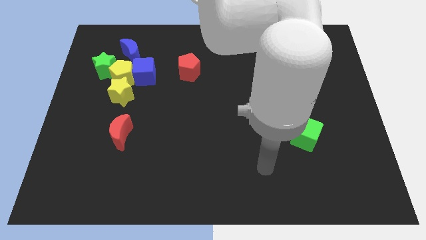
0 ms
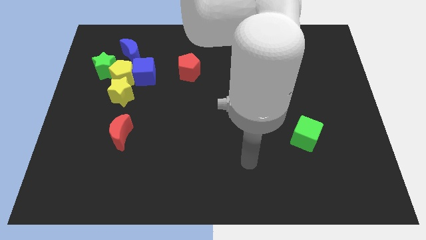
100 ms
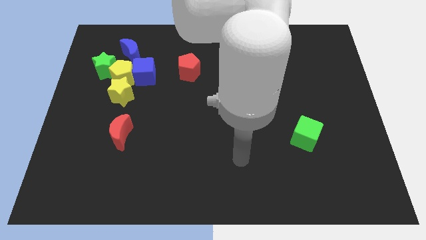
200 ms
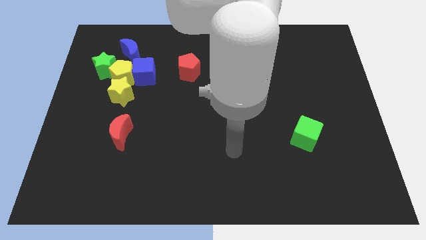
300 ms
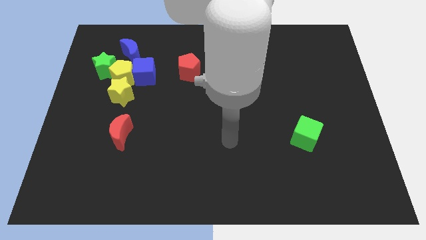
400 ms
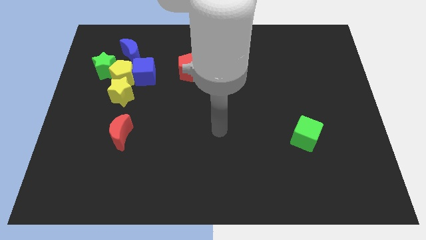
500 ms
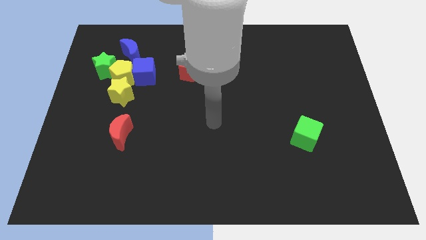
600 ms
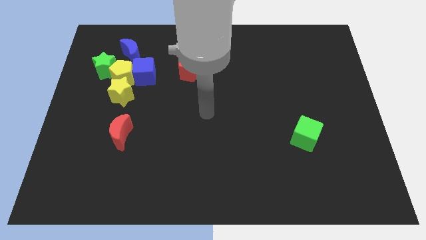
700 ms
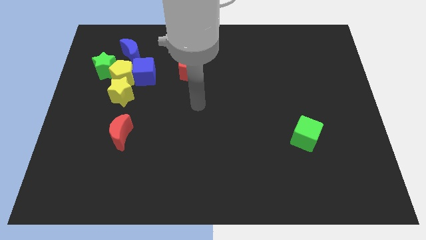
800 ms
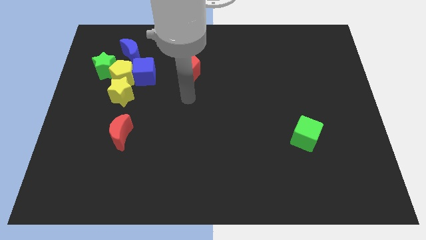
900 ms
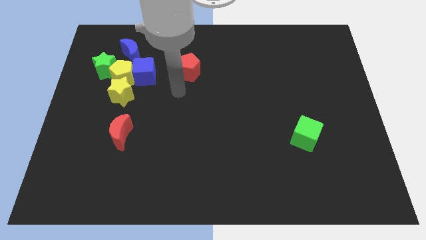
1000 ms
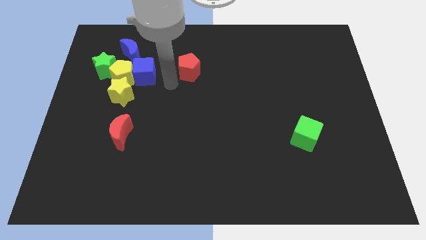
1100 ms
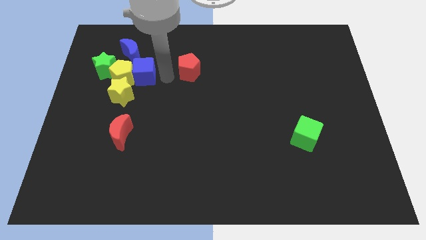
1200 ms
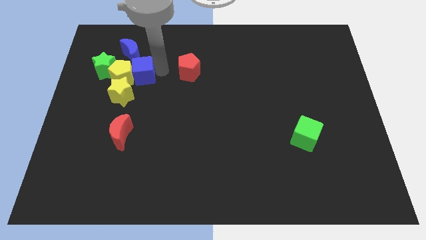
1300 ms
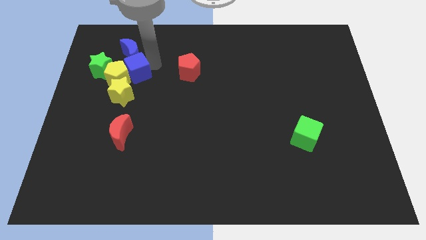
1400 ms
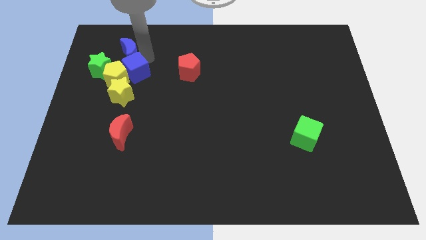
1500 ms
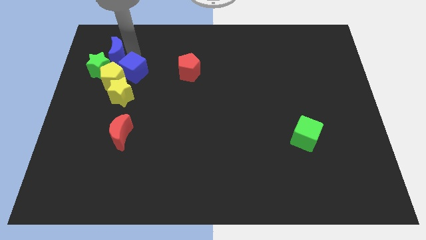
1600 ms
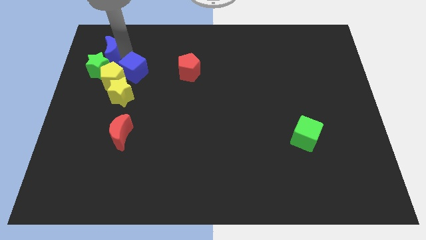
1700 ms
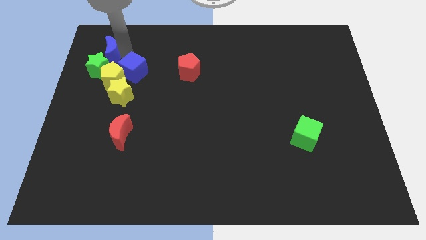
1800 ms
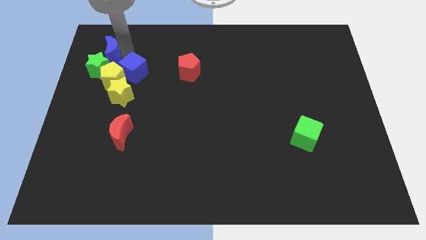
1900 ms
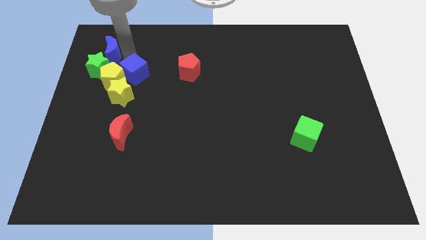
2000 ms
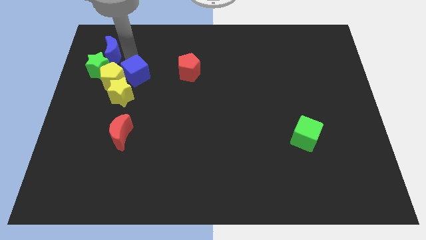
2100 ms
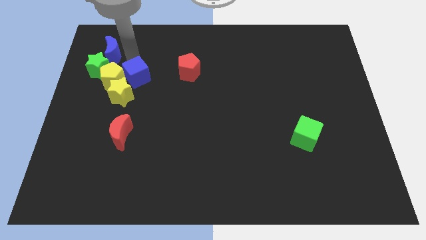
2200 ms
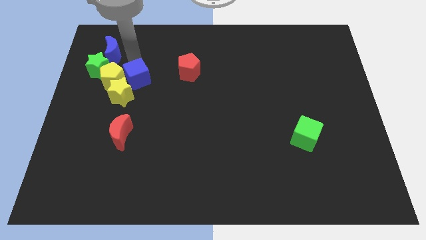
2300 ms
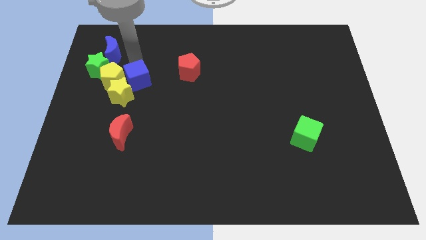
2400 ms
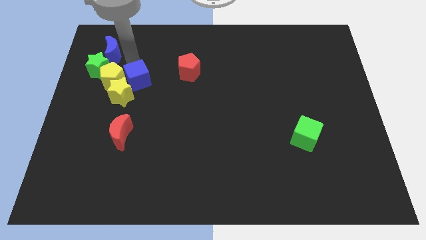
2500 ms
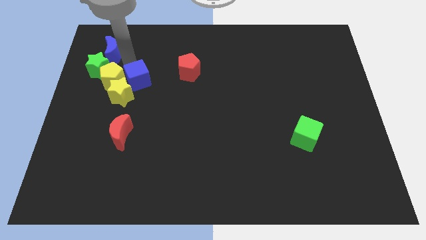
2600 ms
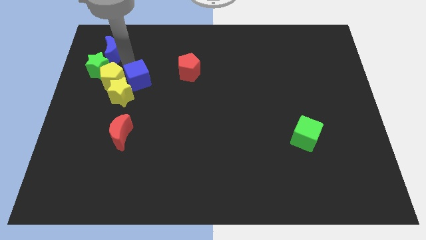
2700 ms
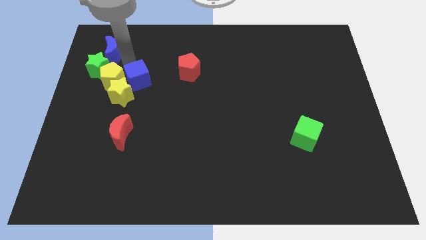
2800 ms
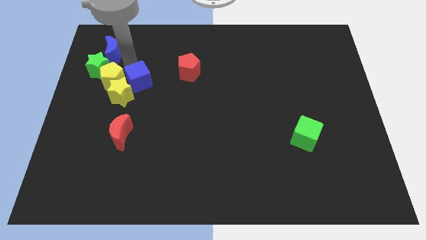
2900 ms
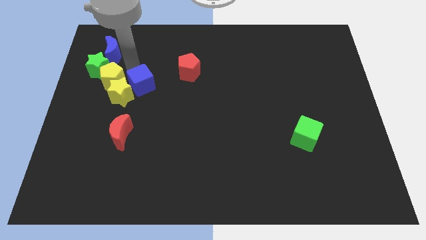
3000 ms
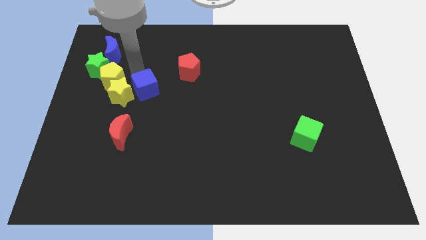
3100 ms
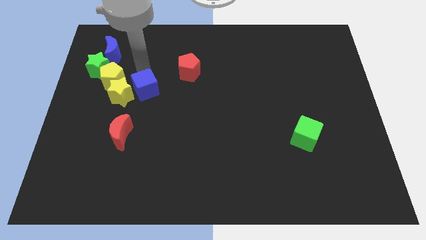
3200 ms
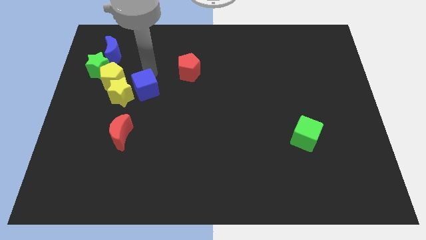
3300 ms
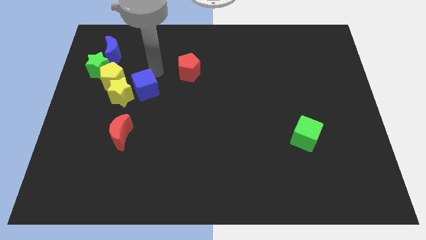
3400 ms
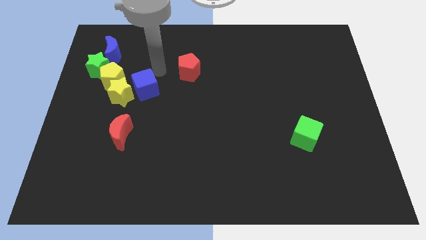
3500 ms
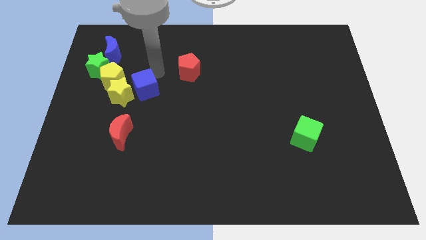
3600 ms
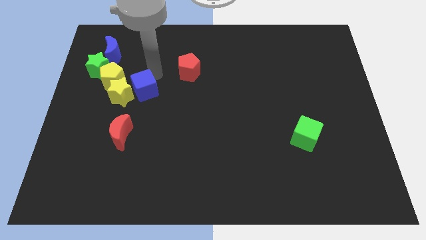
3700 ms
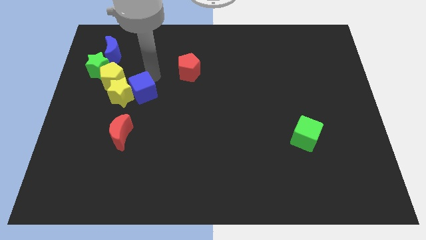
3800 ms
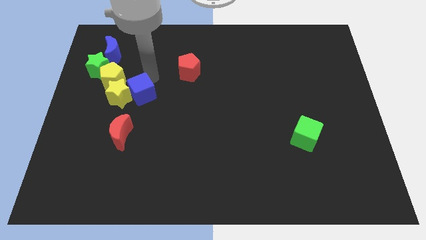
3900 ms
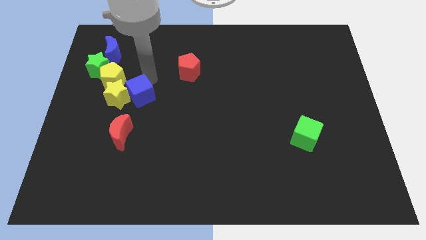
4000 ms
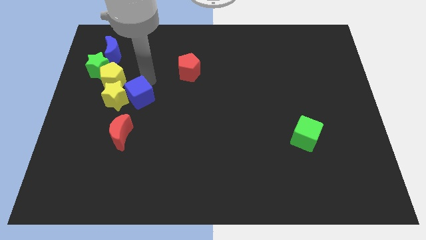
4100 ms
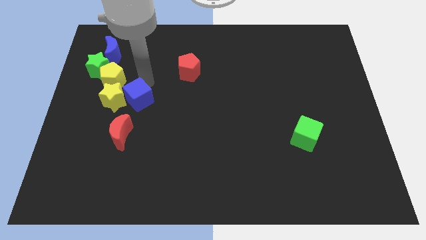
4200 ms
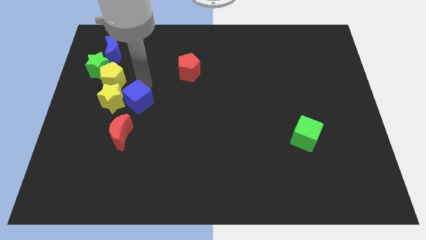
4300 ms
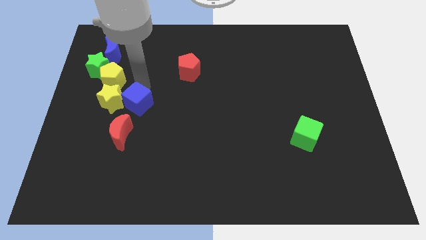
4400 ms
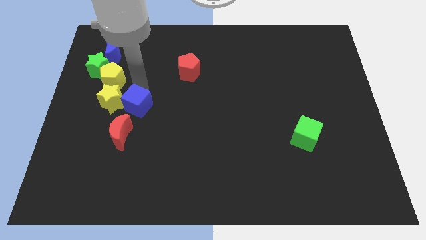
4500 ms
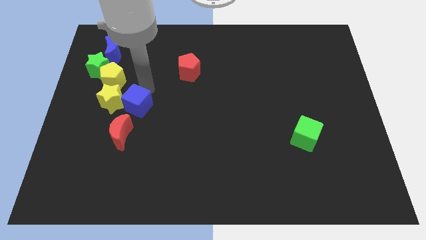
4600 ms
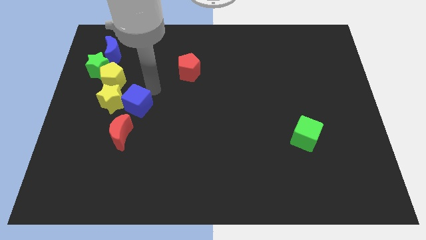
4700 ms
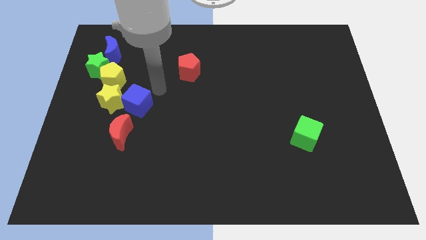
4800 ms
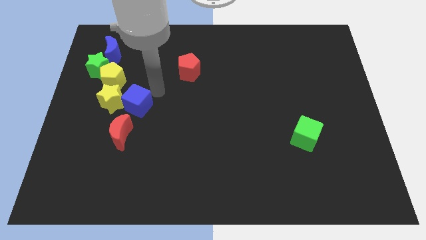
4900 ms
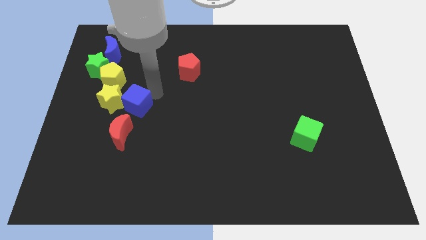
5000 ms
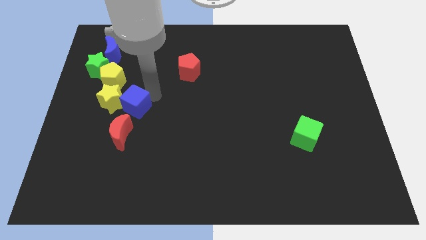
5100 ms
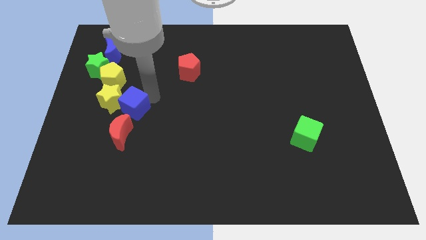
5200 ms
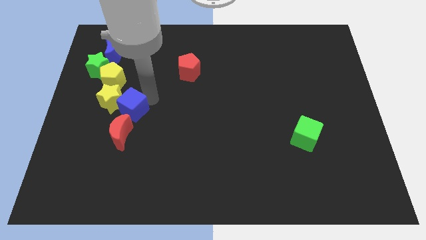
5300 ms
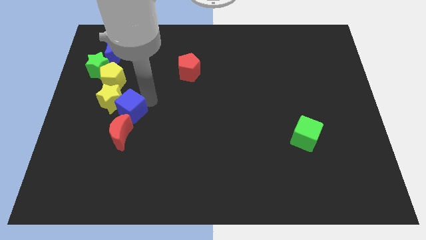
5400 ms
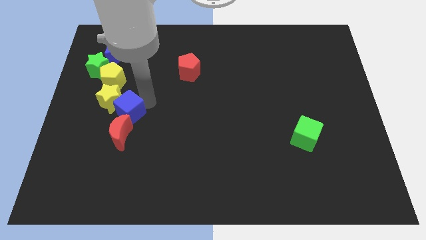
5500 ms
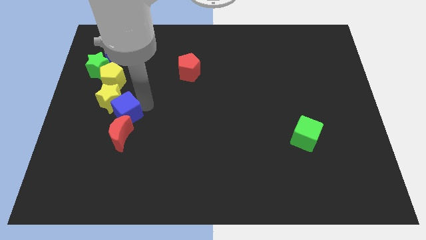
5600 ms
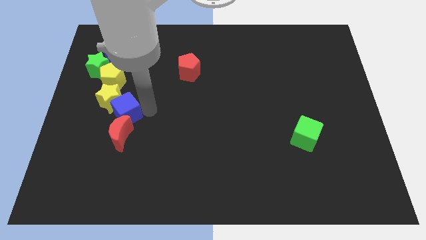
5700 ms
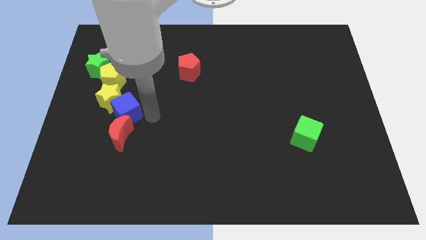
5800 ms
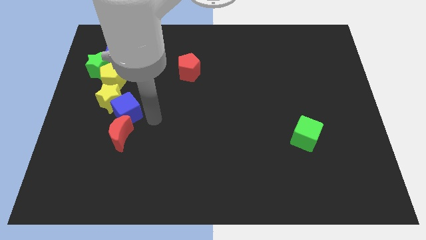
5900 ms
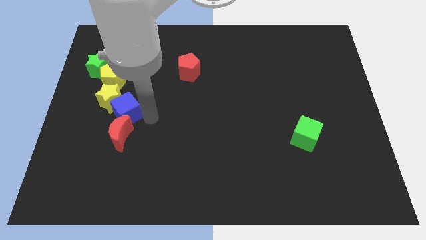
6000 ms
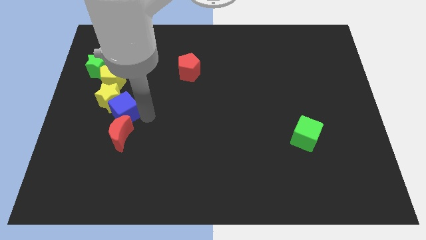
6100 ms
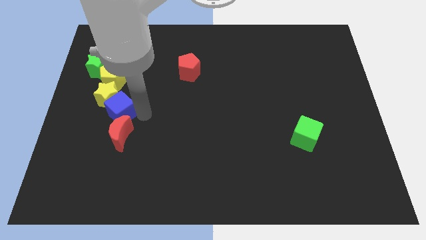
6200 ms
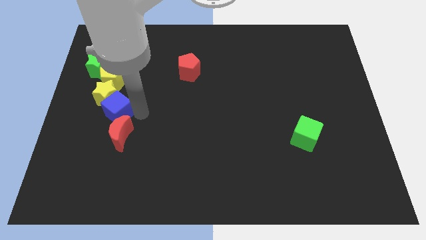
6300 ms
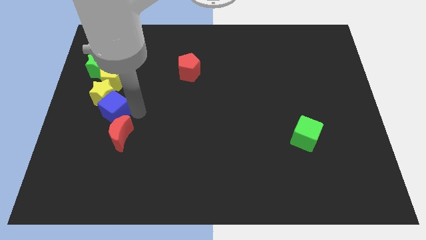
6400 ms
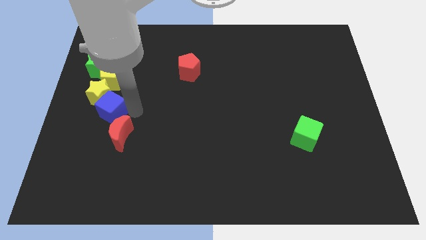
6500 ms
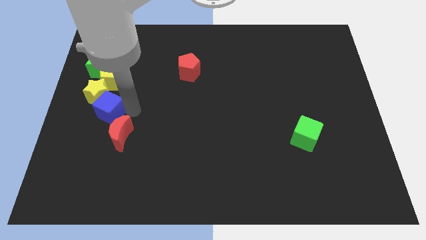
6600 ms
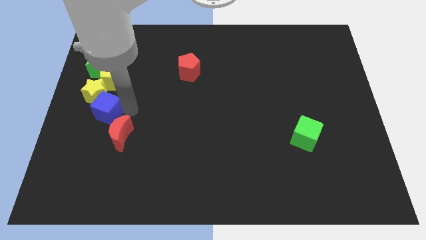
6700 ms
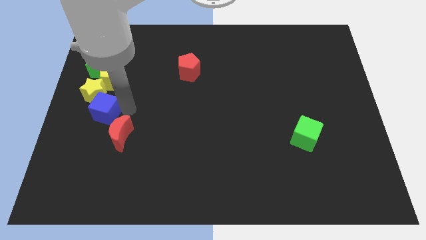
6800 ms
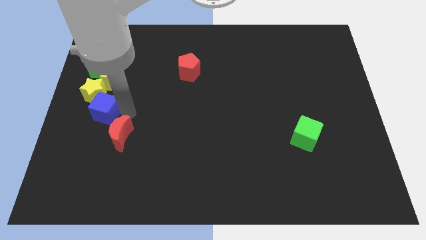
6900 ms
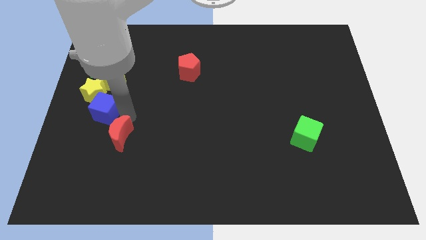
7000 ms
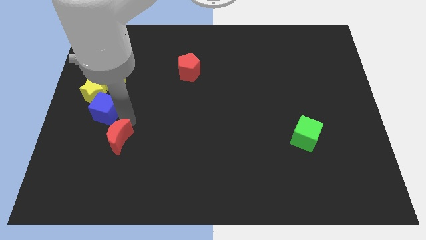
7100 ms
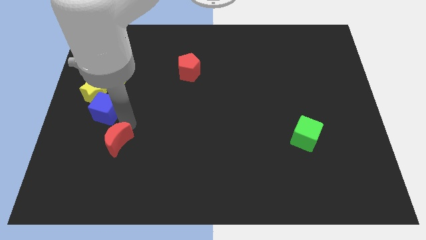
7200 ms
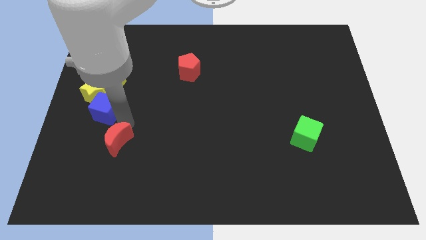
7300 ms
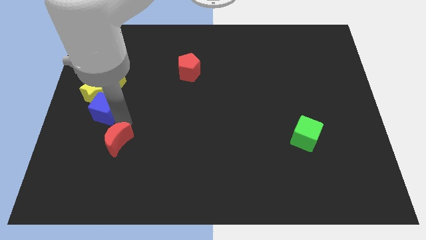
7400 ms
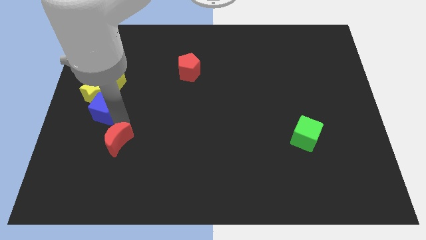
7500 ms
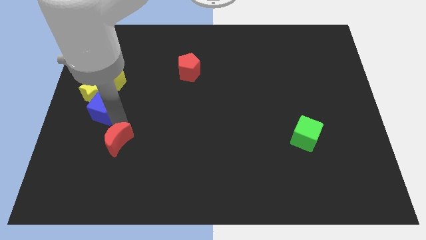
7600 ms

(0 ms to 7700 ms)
move the blue cube to the left side
